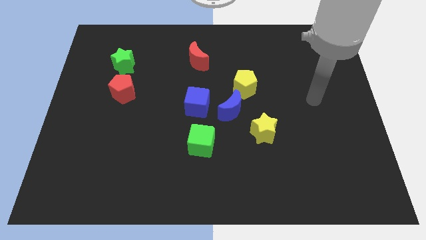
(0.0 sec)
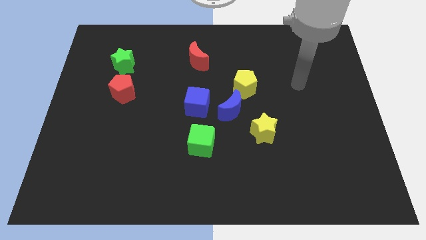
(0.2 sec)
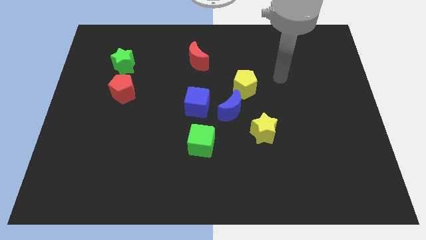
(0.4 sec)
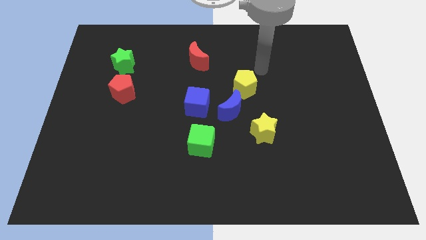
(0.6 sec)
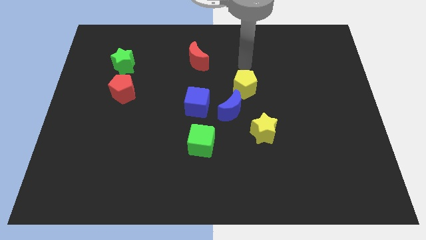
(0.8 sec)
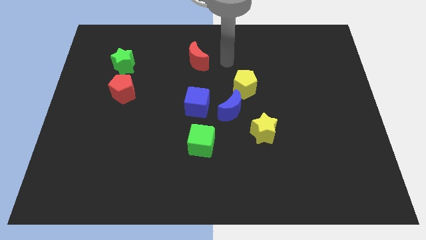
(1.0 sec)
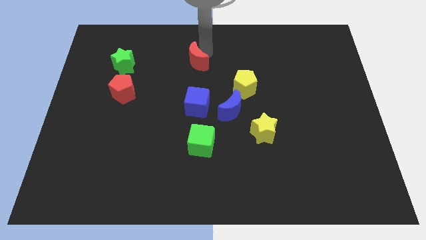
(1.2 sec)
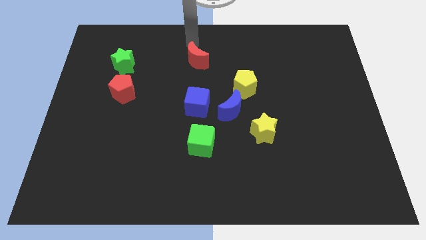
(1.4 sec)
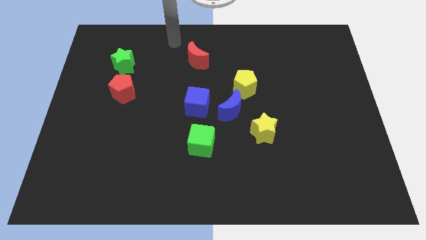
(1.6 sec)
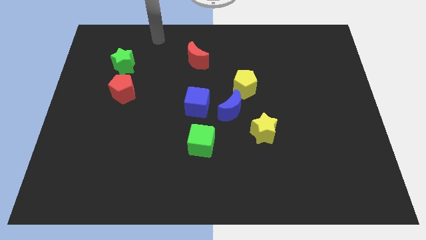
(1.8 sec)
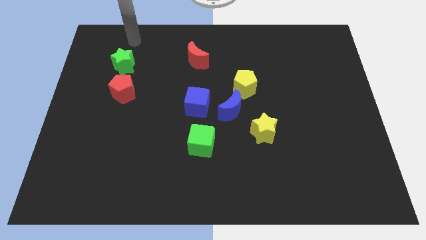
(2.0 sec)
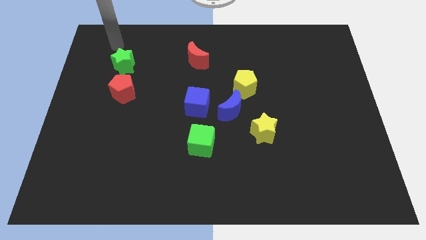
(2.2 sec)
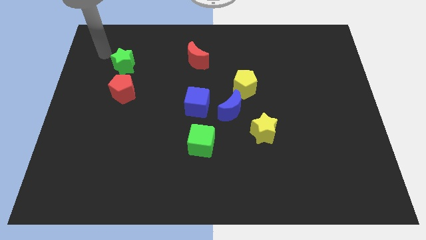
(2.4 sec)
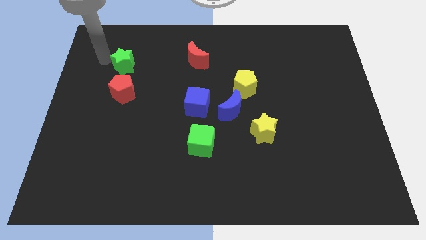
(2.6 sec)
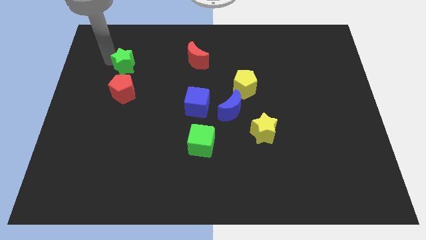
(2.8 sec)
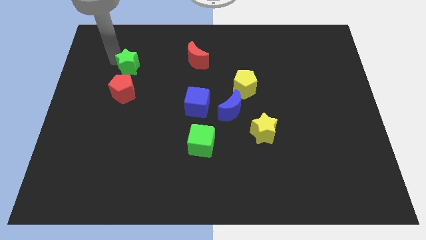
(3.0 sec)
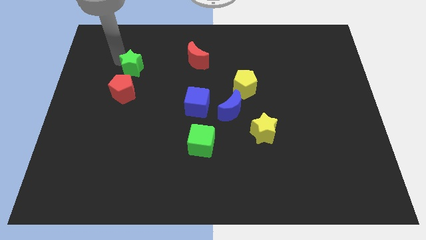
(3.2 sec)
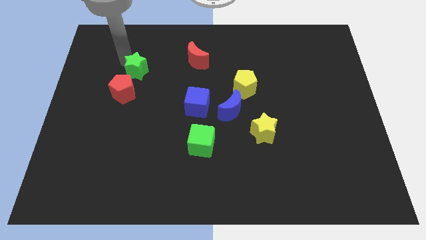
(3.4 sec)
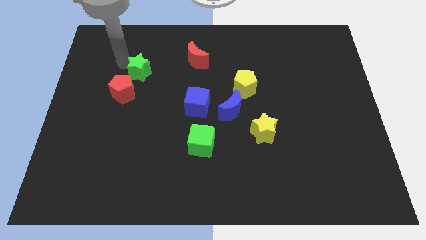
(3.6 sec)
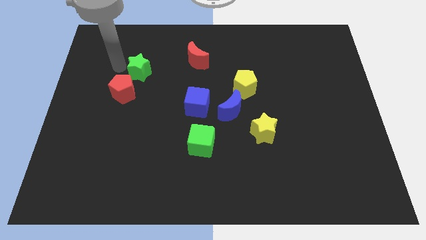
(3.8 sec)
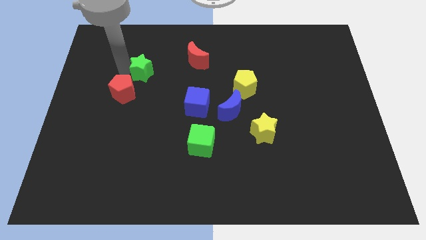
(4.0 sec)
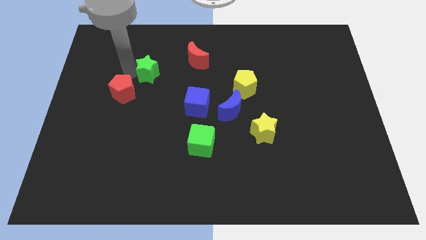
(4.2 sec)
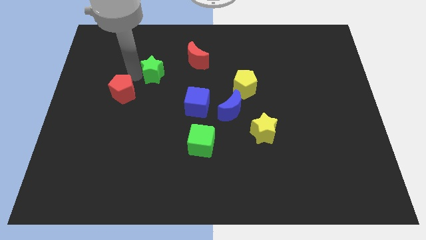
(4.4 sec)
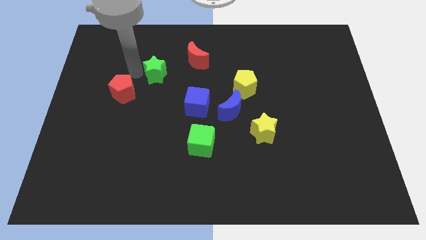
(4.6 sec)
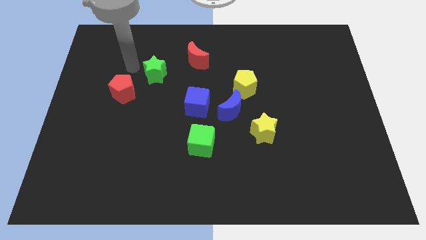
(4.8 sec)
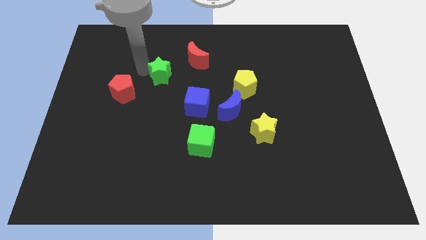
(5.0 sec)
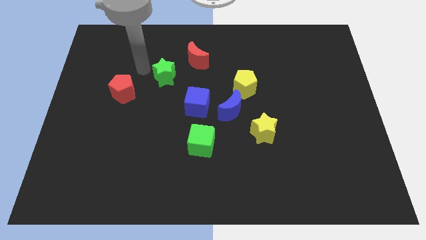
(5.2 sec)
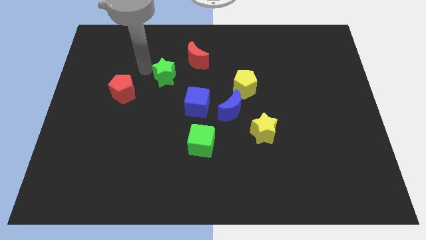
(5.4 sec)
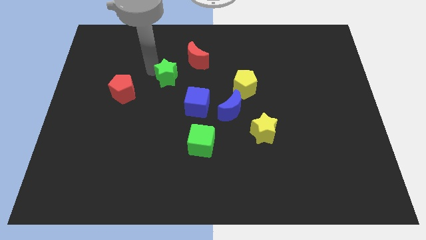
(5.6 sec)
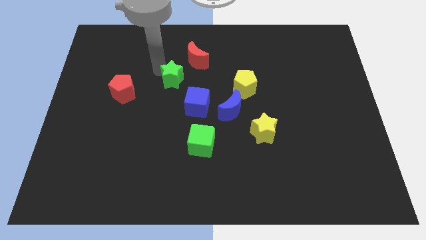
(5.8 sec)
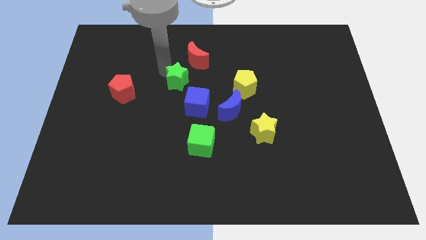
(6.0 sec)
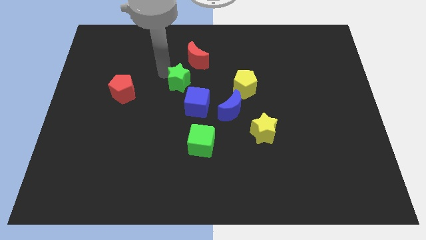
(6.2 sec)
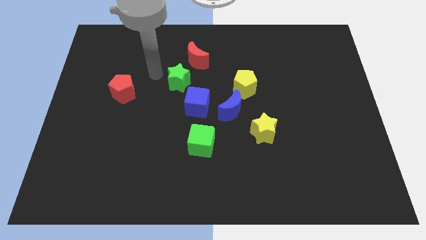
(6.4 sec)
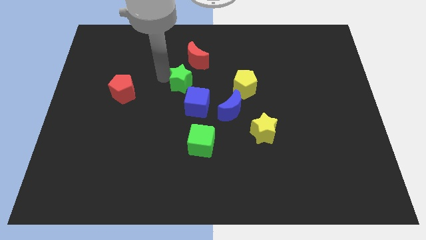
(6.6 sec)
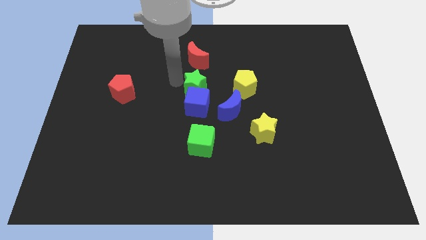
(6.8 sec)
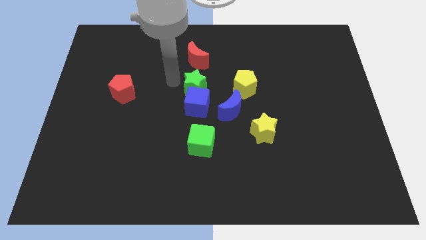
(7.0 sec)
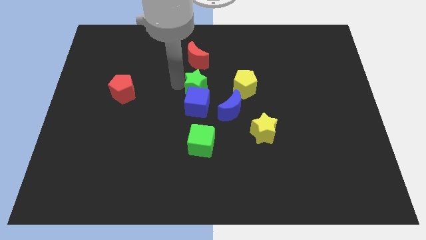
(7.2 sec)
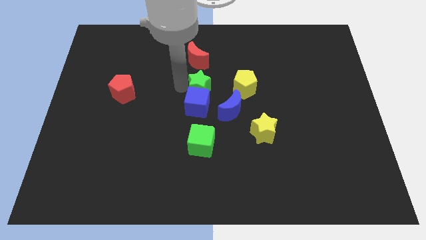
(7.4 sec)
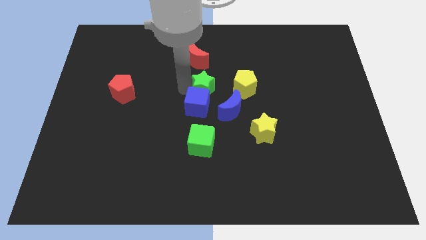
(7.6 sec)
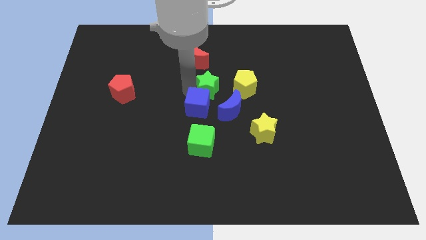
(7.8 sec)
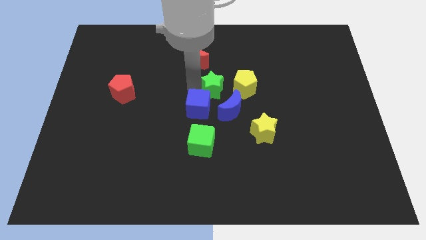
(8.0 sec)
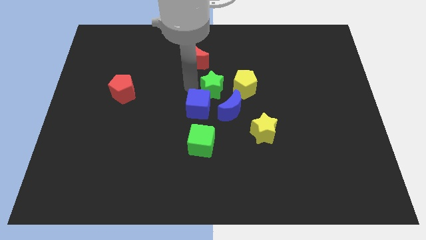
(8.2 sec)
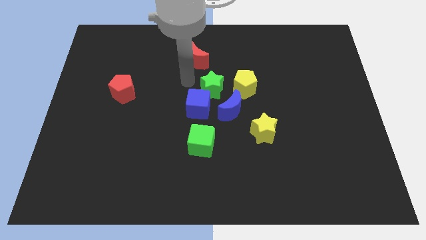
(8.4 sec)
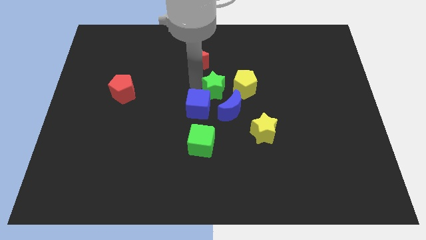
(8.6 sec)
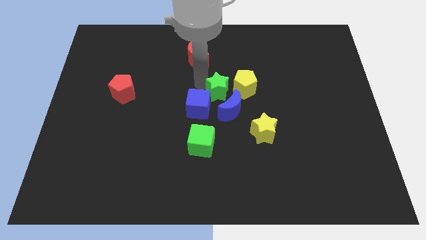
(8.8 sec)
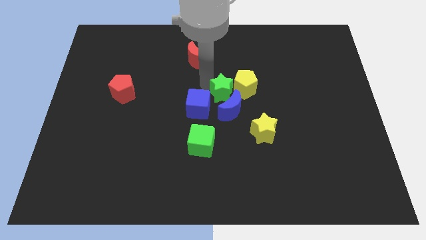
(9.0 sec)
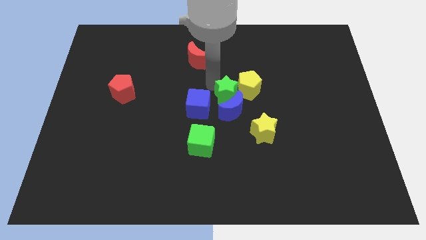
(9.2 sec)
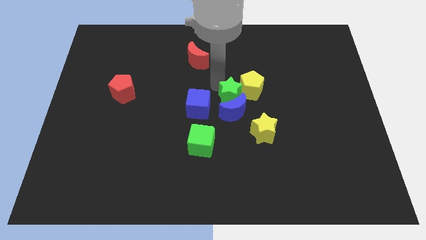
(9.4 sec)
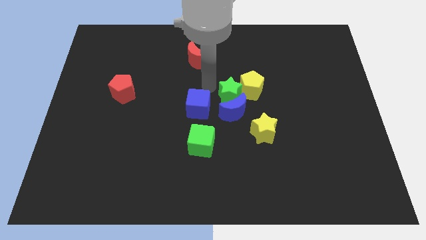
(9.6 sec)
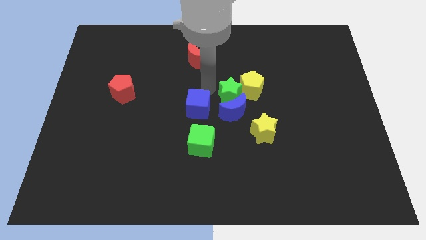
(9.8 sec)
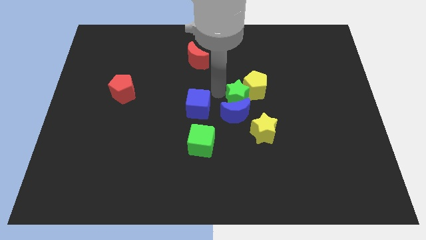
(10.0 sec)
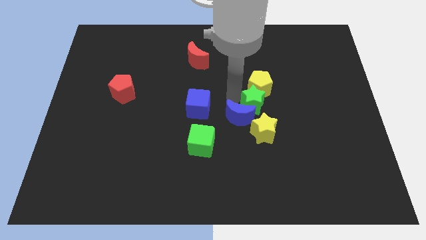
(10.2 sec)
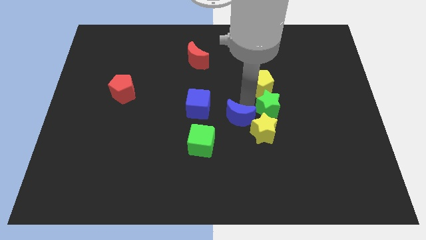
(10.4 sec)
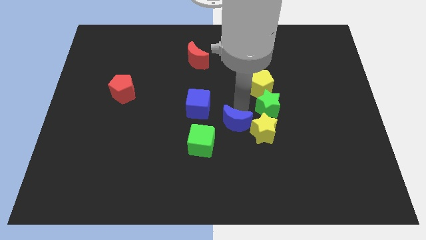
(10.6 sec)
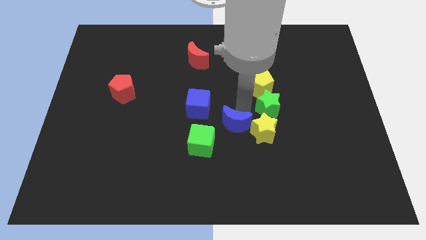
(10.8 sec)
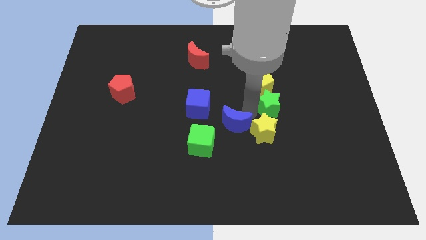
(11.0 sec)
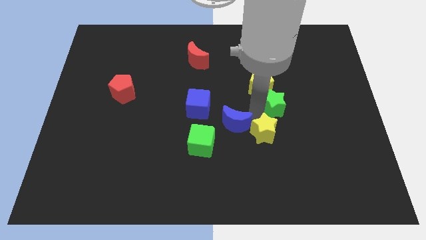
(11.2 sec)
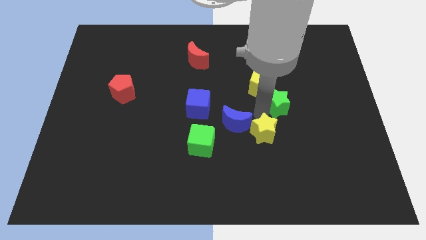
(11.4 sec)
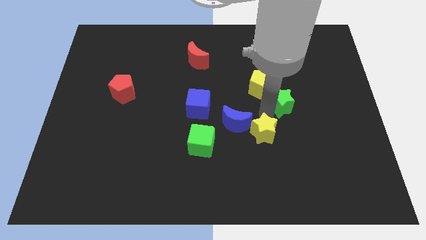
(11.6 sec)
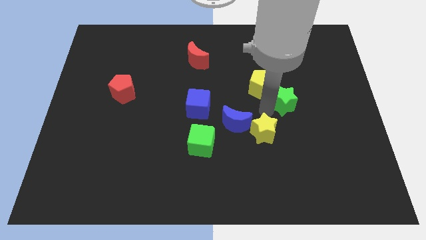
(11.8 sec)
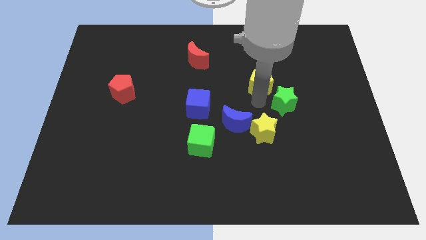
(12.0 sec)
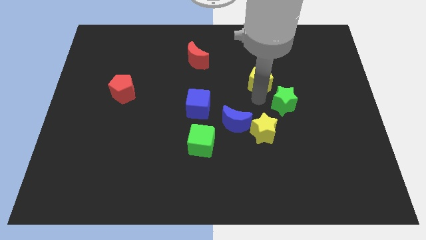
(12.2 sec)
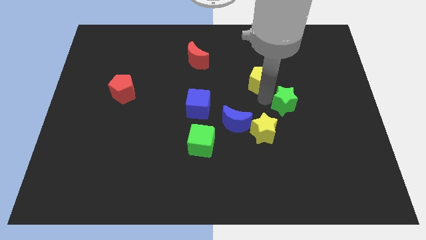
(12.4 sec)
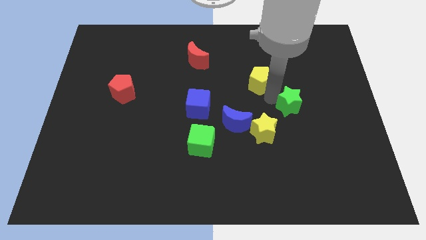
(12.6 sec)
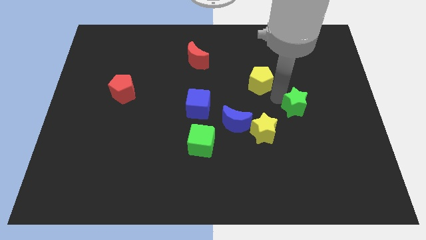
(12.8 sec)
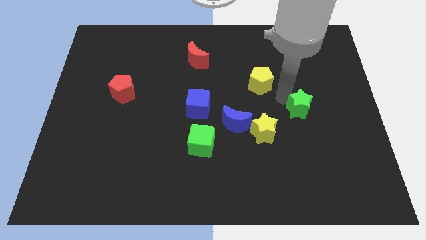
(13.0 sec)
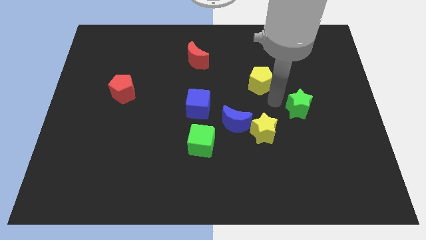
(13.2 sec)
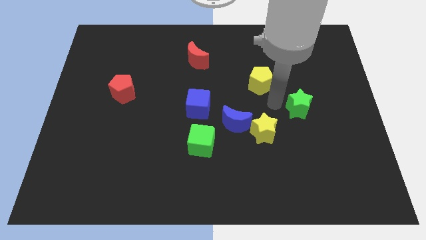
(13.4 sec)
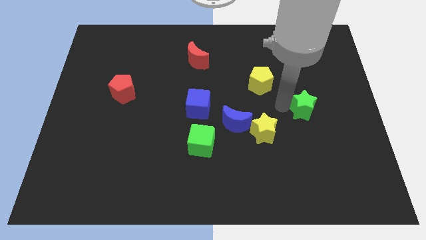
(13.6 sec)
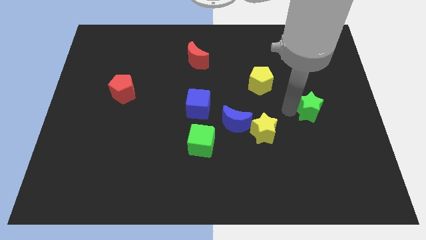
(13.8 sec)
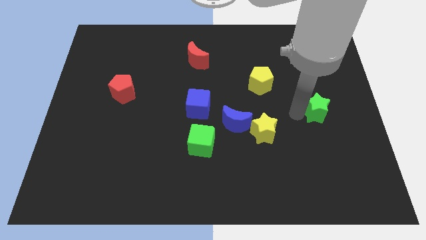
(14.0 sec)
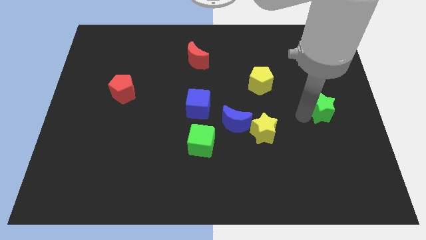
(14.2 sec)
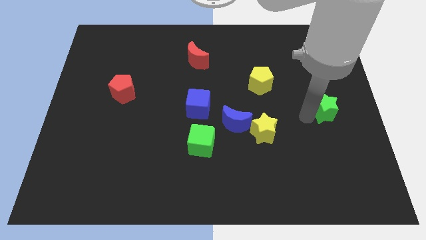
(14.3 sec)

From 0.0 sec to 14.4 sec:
slide the green star to the center right
